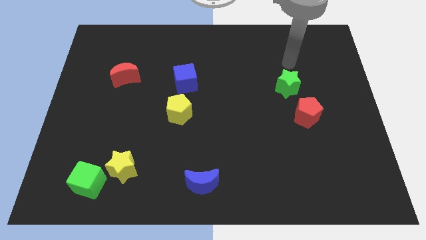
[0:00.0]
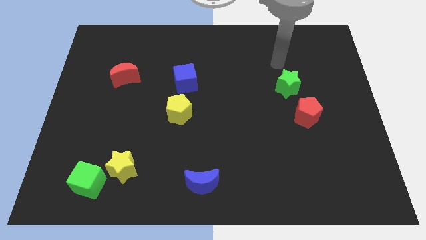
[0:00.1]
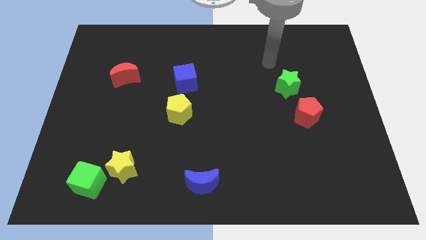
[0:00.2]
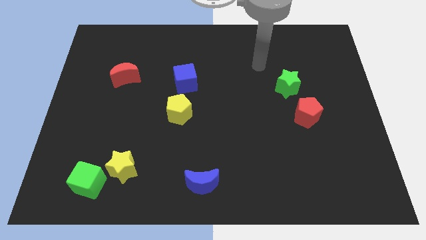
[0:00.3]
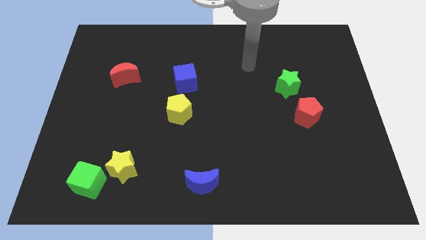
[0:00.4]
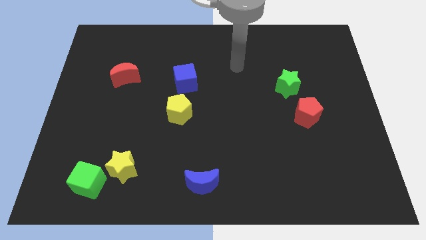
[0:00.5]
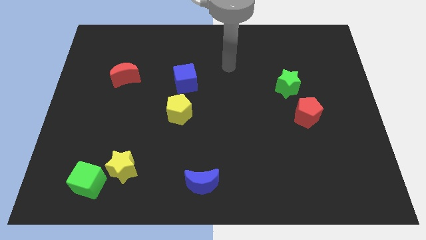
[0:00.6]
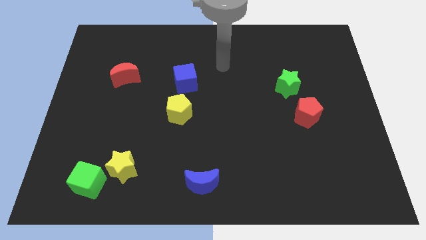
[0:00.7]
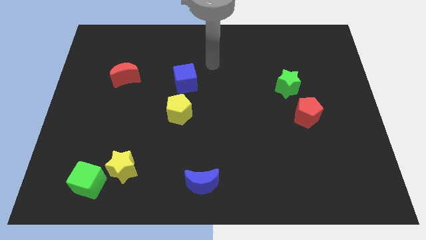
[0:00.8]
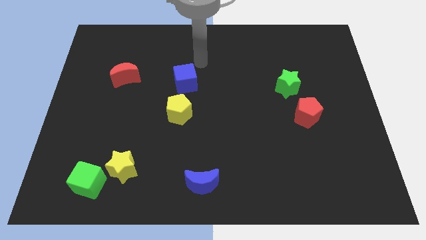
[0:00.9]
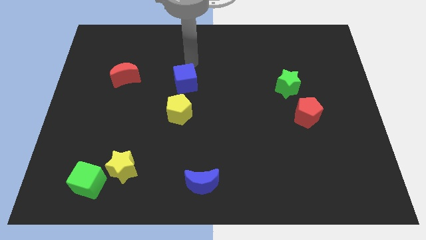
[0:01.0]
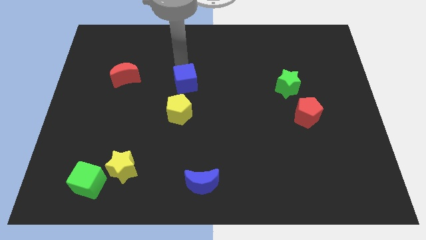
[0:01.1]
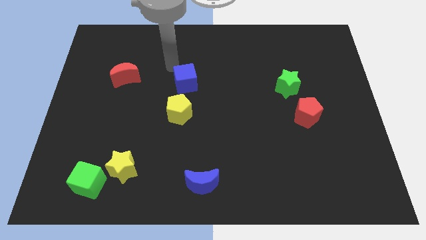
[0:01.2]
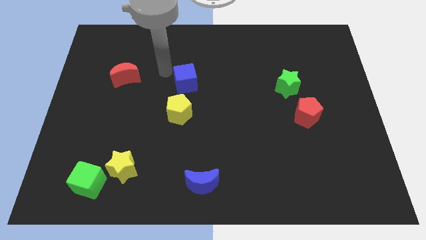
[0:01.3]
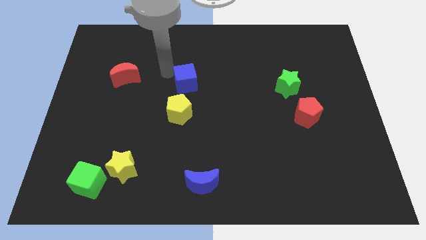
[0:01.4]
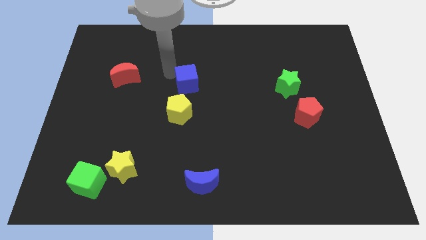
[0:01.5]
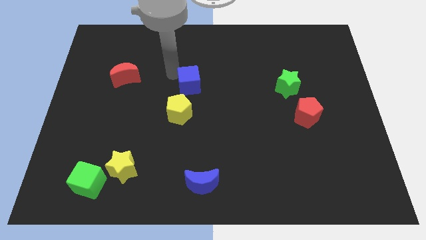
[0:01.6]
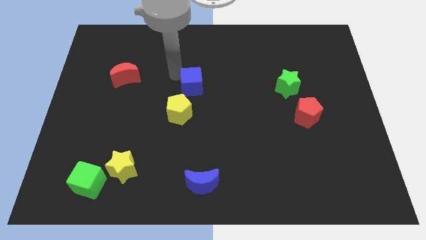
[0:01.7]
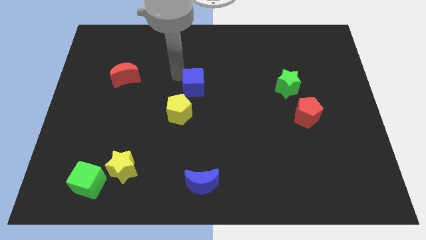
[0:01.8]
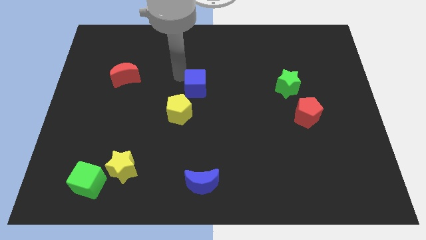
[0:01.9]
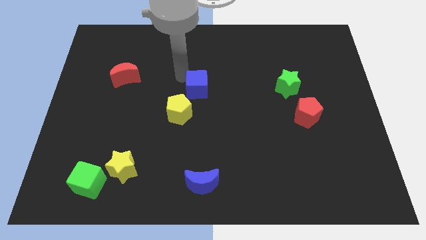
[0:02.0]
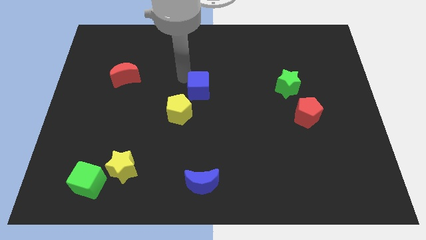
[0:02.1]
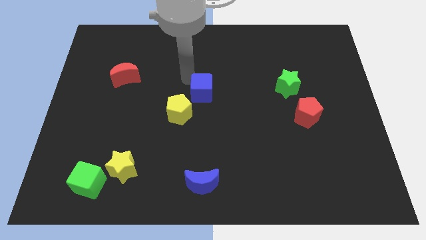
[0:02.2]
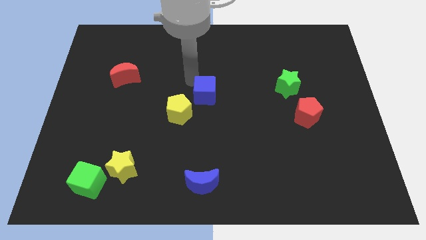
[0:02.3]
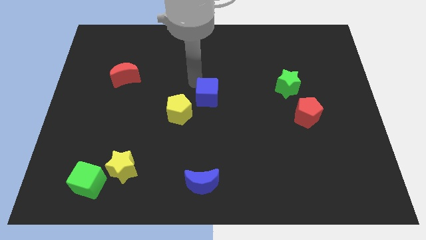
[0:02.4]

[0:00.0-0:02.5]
push the blue cube downwards and right diagonally somewhat

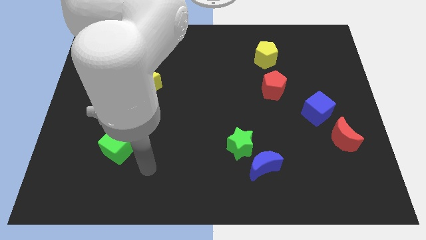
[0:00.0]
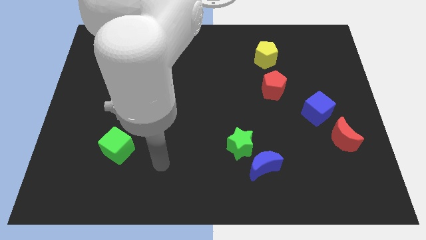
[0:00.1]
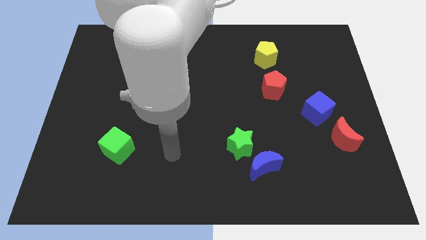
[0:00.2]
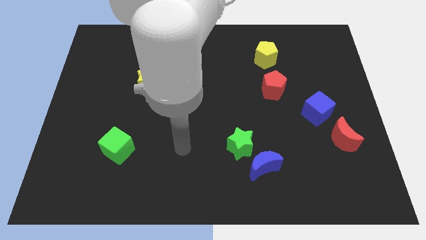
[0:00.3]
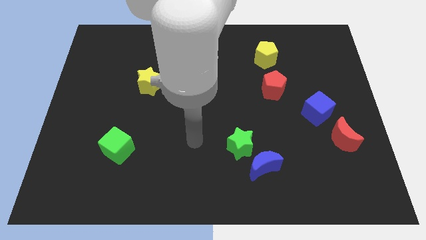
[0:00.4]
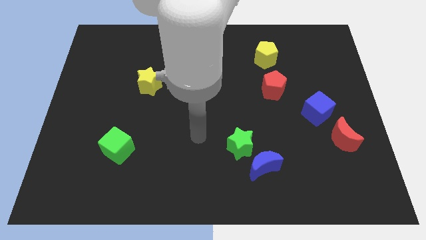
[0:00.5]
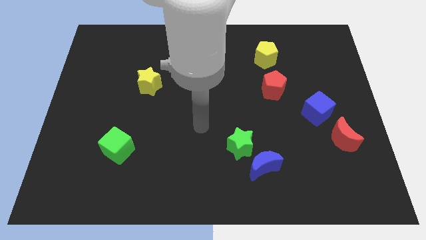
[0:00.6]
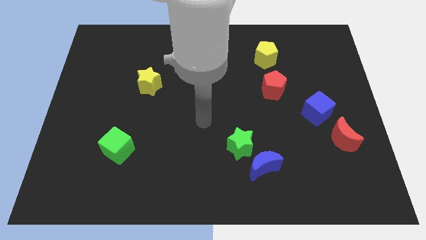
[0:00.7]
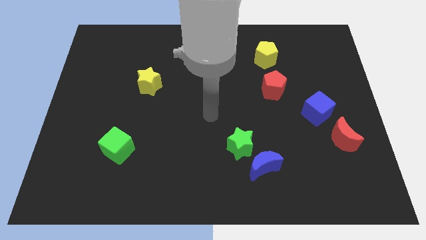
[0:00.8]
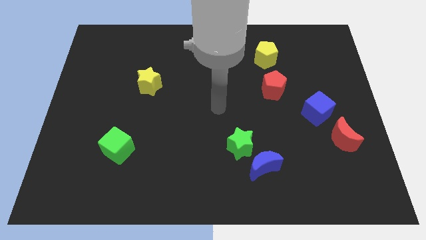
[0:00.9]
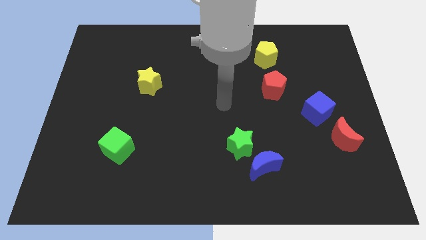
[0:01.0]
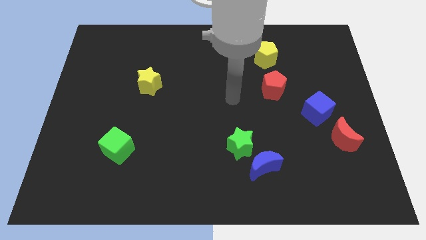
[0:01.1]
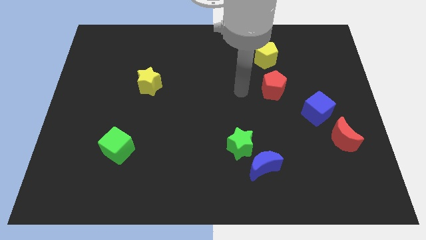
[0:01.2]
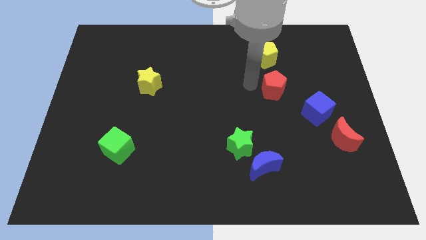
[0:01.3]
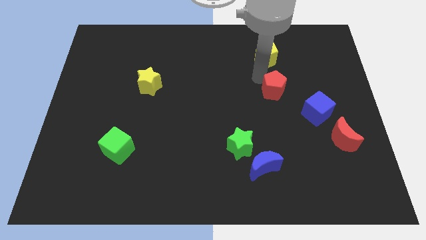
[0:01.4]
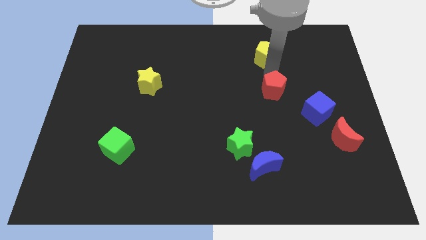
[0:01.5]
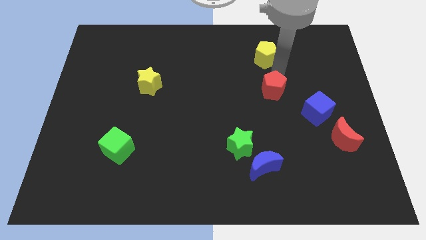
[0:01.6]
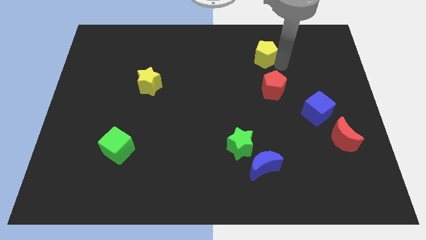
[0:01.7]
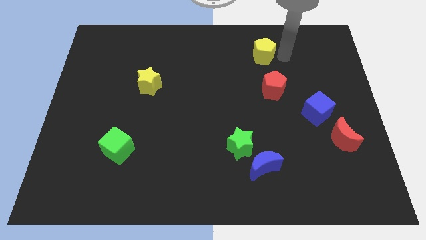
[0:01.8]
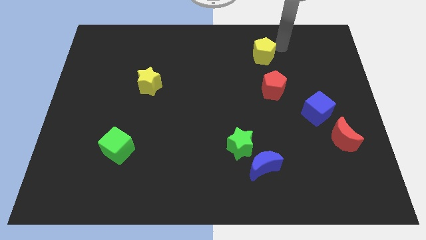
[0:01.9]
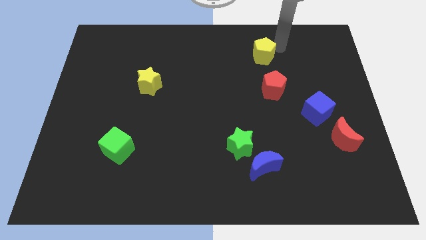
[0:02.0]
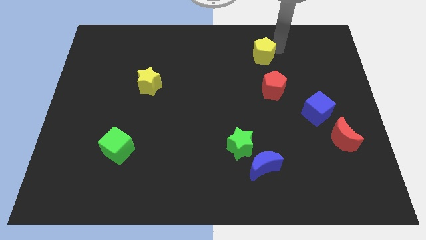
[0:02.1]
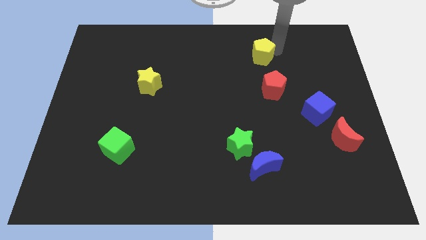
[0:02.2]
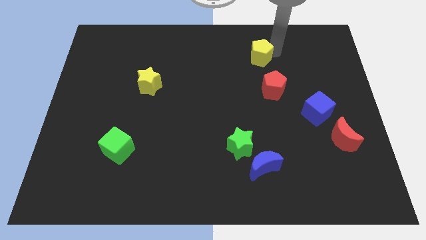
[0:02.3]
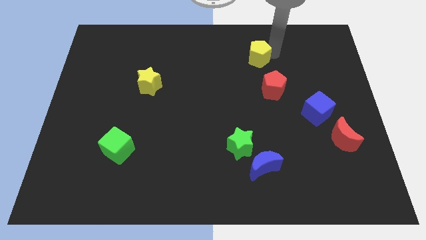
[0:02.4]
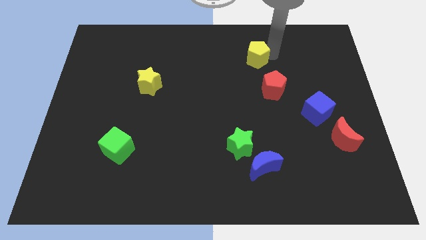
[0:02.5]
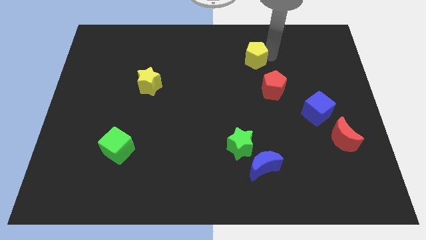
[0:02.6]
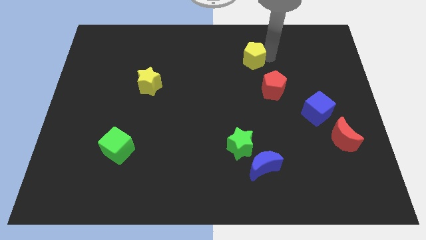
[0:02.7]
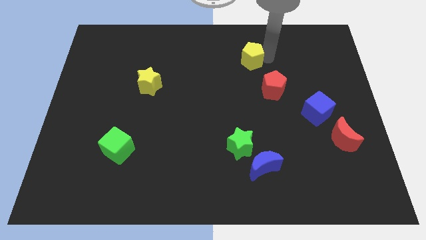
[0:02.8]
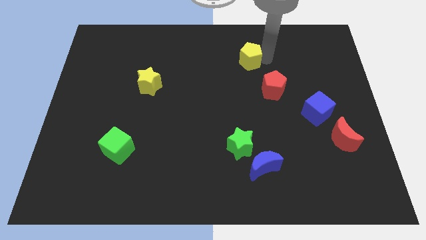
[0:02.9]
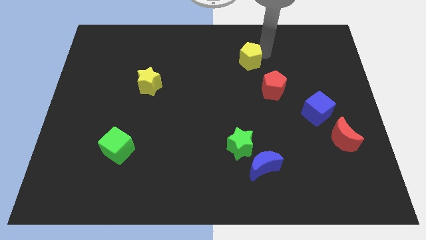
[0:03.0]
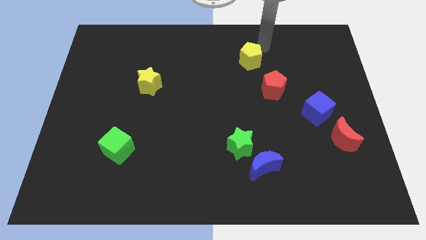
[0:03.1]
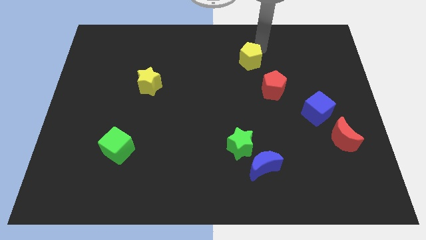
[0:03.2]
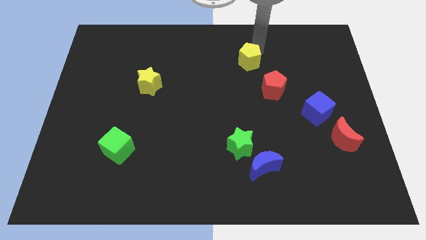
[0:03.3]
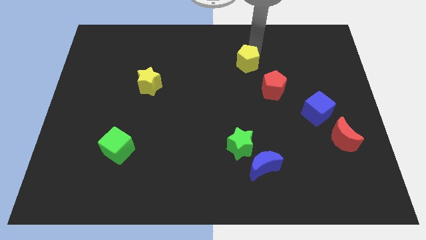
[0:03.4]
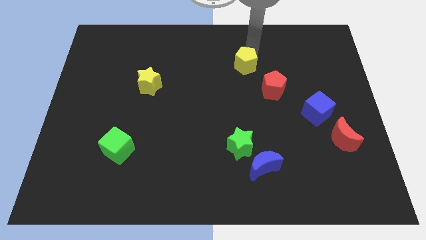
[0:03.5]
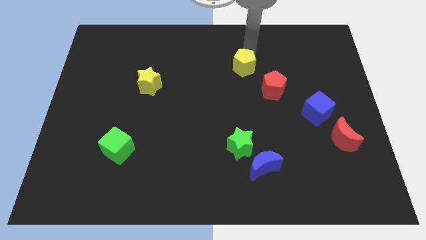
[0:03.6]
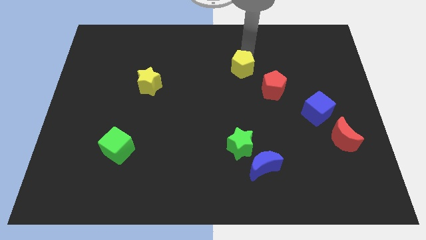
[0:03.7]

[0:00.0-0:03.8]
slightly move the yellow pentagon downwards and to the left

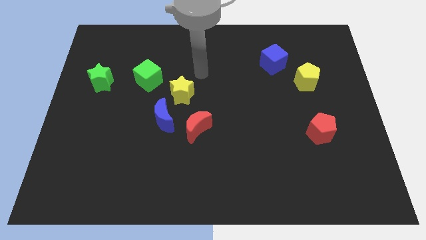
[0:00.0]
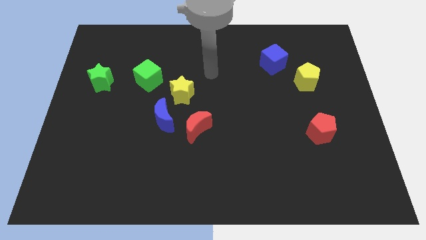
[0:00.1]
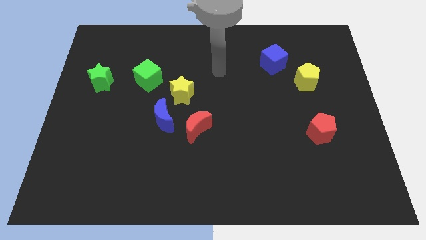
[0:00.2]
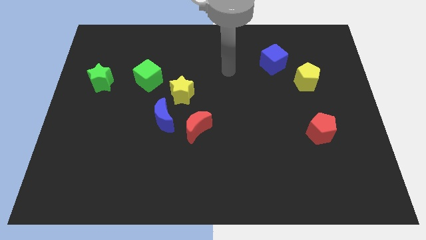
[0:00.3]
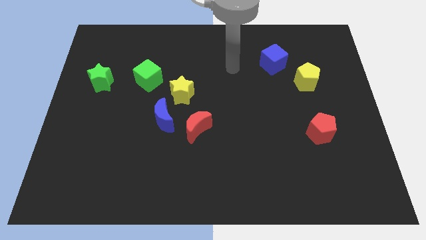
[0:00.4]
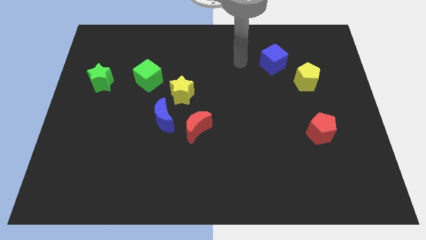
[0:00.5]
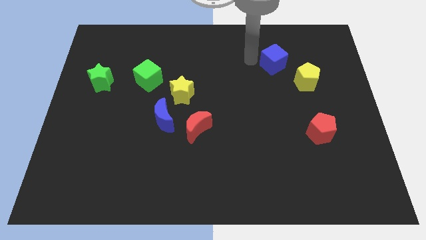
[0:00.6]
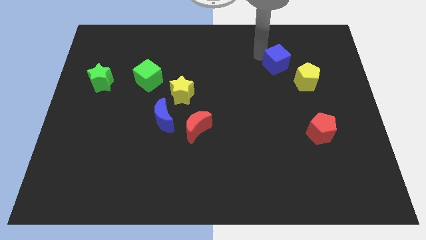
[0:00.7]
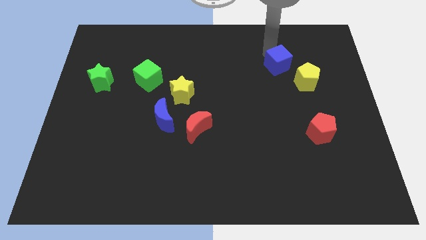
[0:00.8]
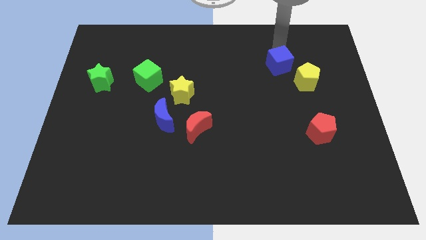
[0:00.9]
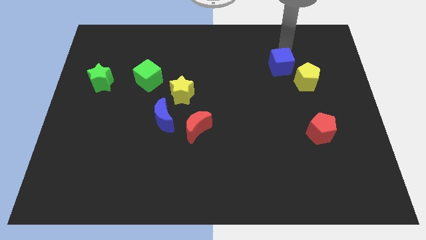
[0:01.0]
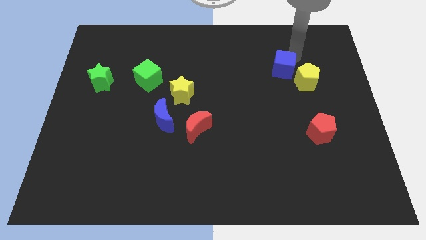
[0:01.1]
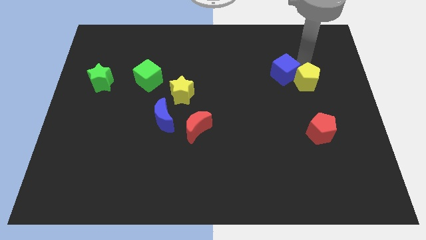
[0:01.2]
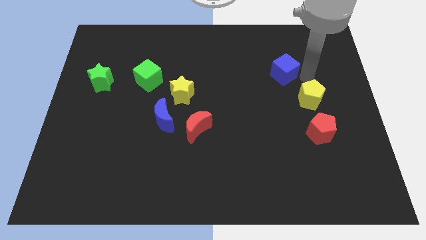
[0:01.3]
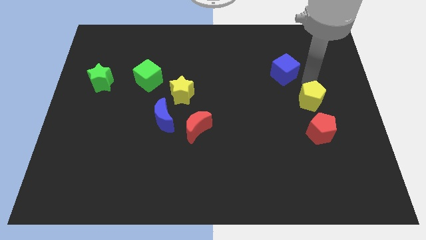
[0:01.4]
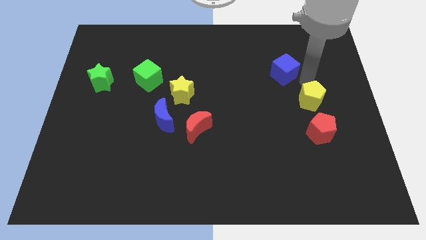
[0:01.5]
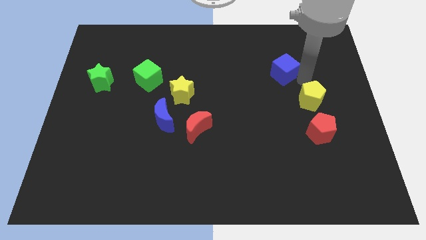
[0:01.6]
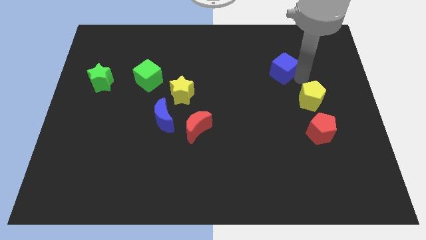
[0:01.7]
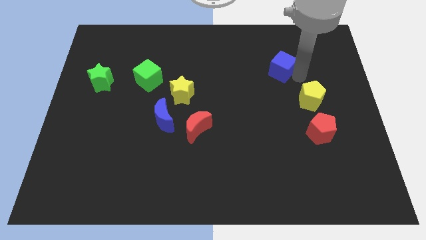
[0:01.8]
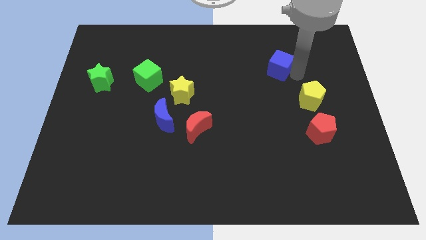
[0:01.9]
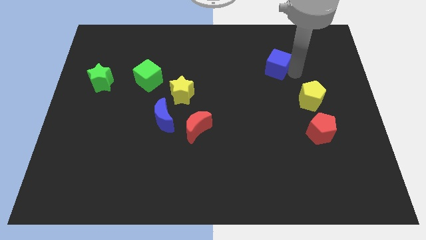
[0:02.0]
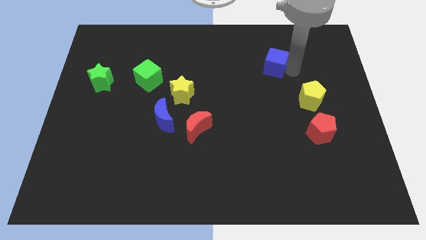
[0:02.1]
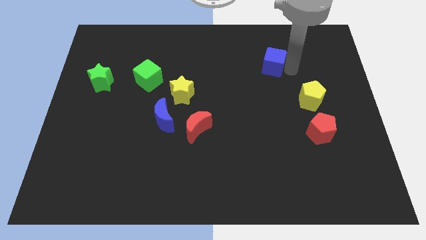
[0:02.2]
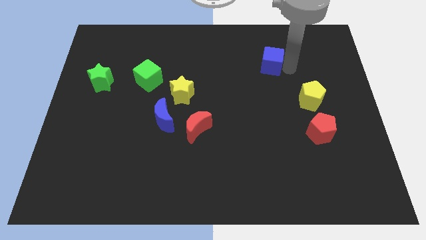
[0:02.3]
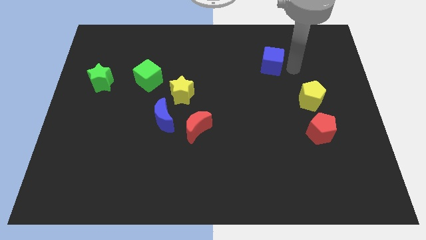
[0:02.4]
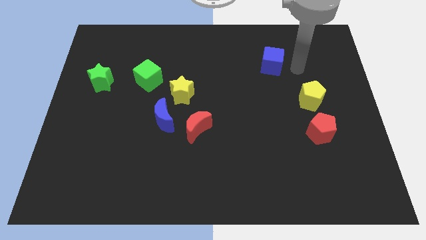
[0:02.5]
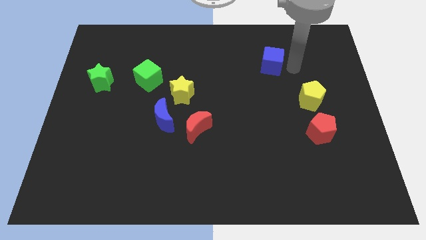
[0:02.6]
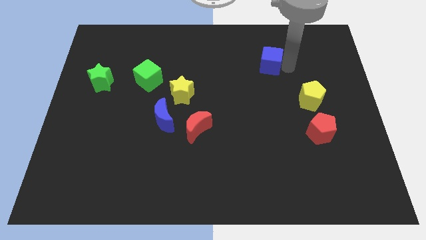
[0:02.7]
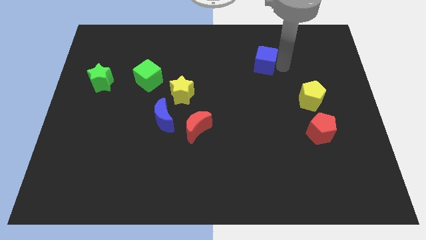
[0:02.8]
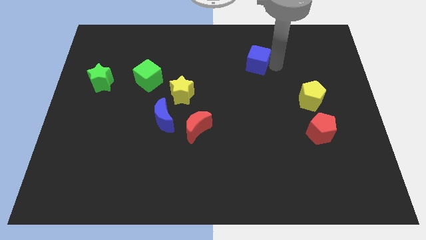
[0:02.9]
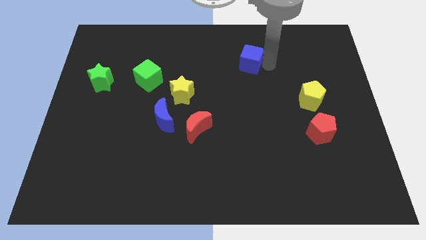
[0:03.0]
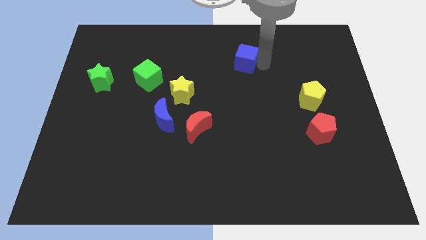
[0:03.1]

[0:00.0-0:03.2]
slightly move the blue cube left
